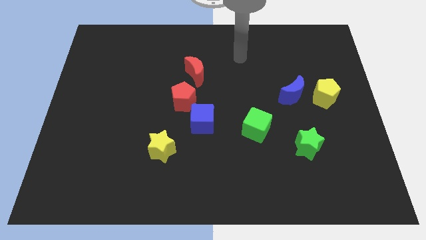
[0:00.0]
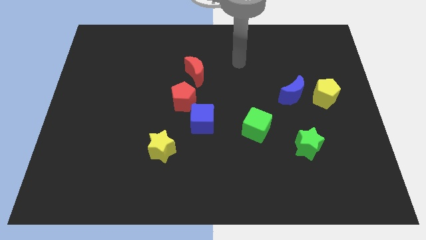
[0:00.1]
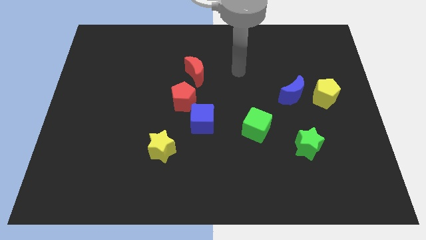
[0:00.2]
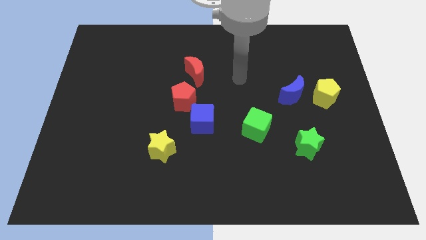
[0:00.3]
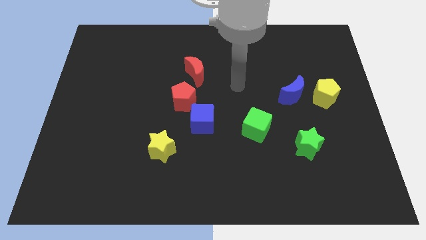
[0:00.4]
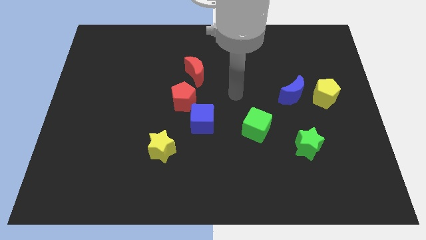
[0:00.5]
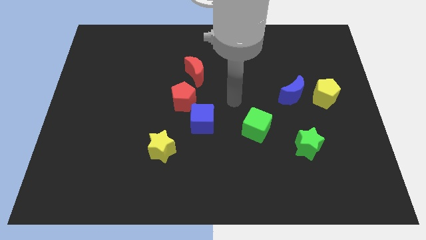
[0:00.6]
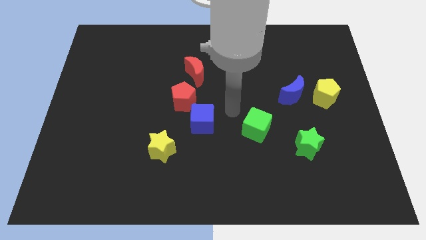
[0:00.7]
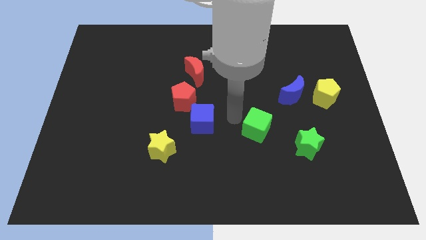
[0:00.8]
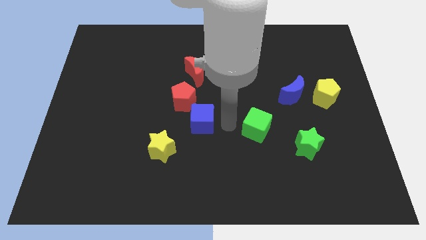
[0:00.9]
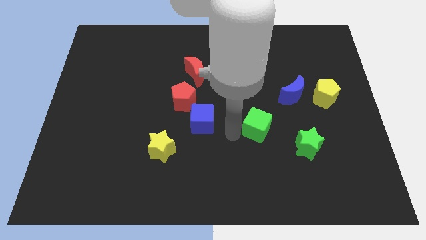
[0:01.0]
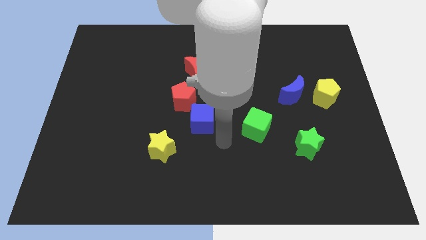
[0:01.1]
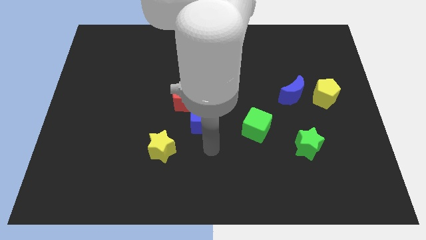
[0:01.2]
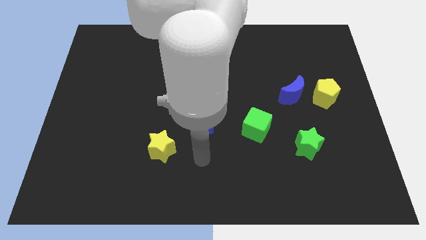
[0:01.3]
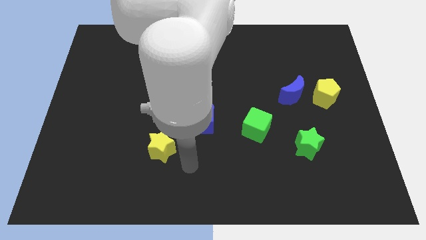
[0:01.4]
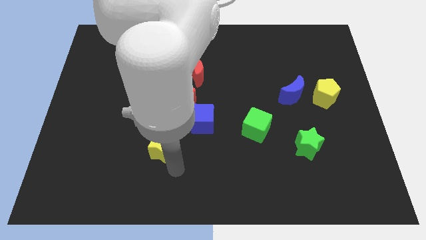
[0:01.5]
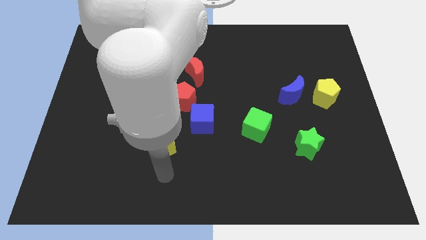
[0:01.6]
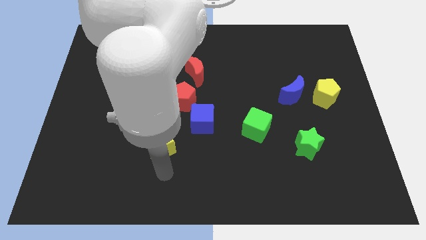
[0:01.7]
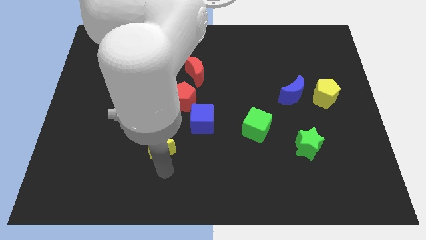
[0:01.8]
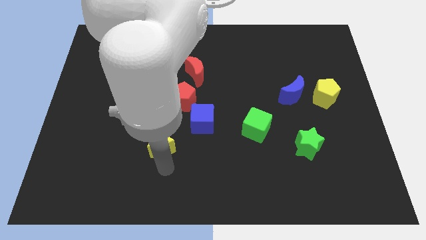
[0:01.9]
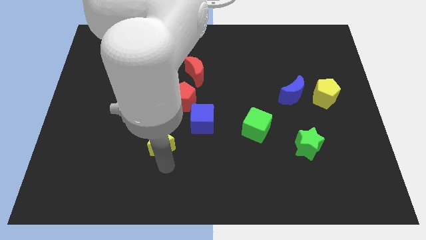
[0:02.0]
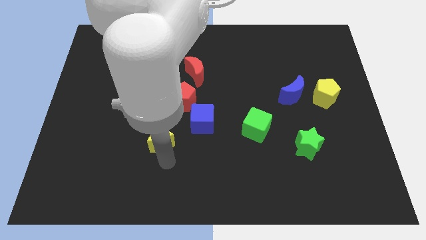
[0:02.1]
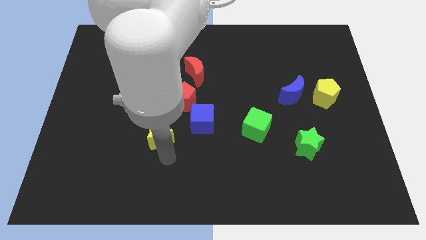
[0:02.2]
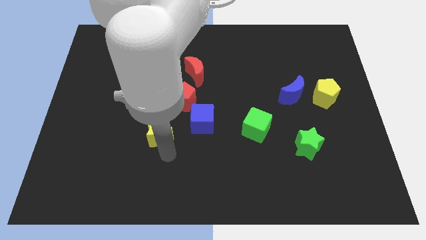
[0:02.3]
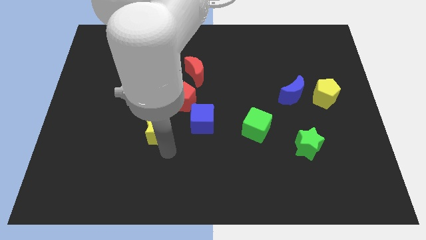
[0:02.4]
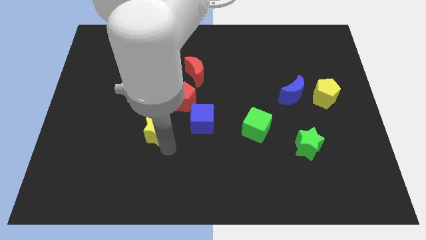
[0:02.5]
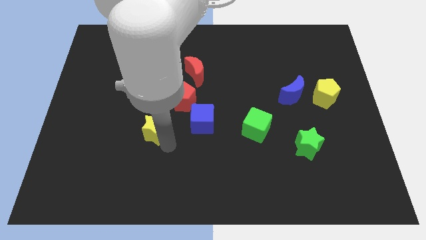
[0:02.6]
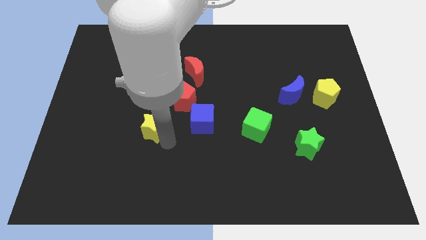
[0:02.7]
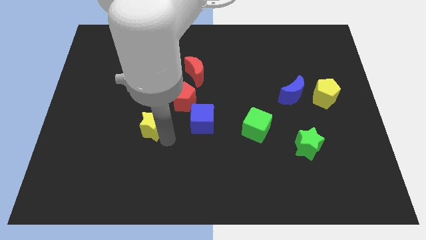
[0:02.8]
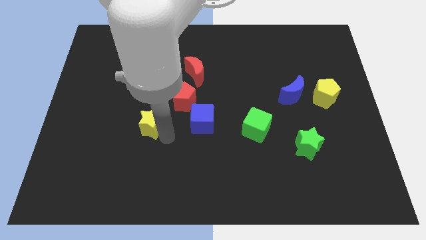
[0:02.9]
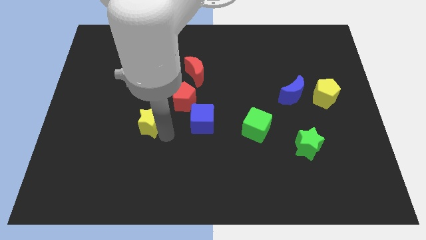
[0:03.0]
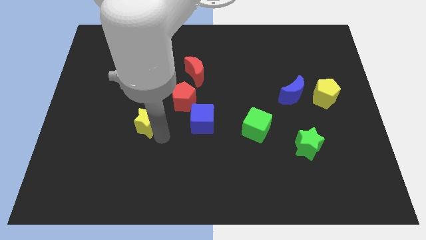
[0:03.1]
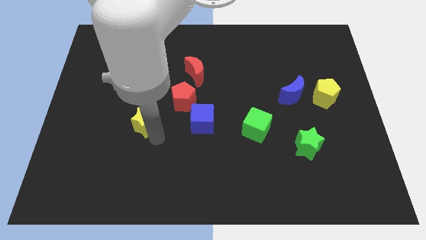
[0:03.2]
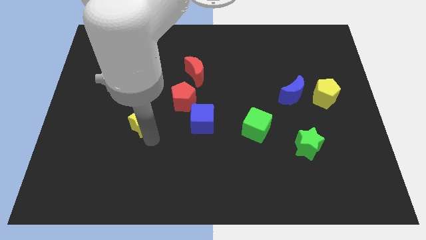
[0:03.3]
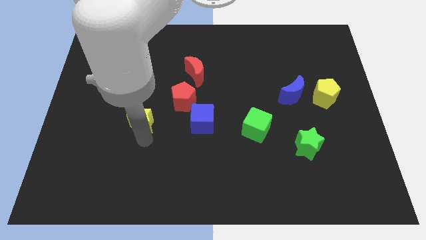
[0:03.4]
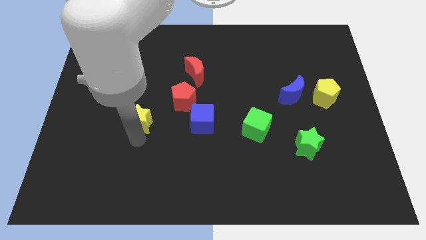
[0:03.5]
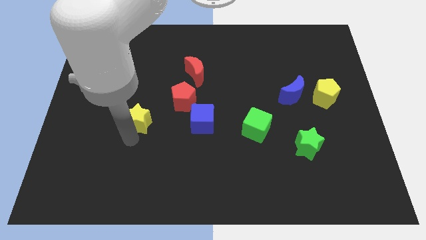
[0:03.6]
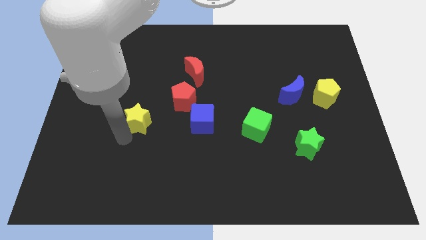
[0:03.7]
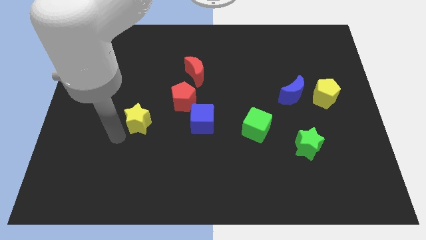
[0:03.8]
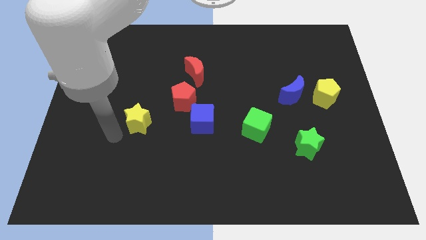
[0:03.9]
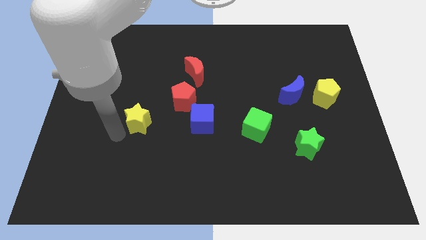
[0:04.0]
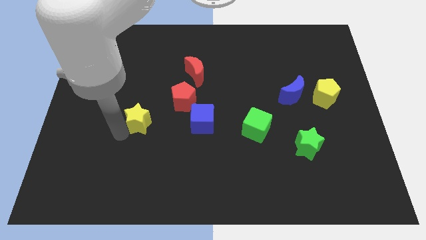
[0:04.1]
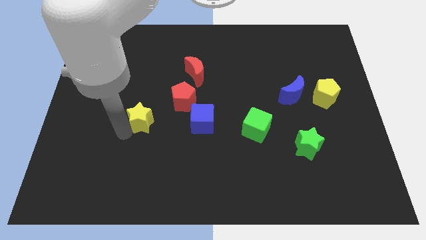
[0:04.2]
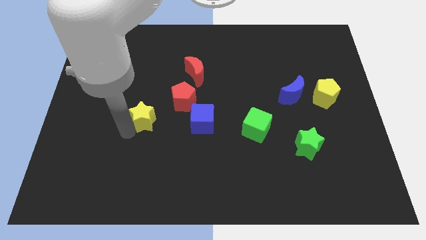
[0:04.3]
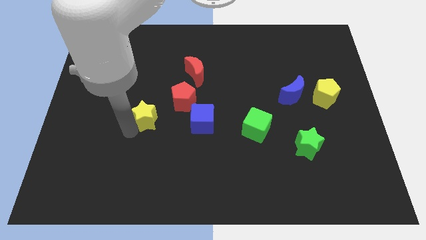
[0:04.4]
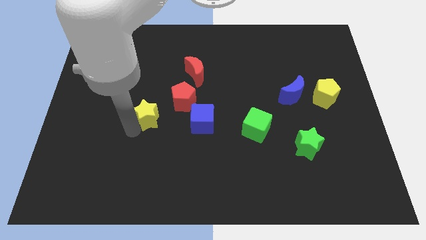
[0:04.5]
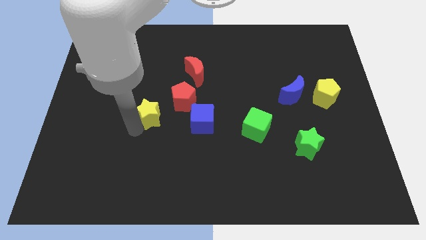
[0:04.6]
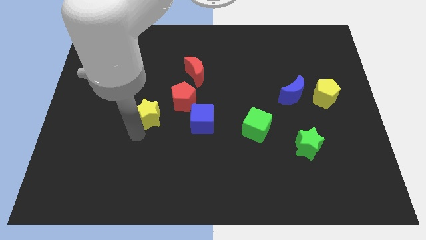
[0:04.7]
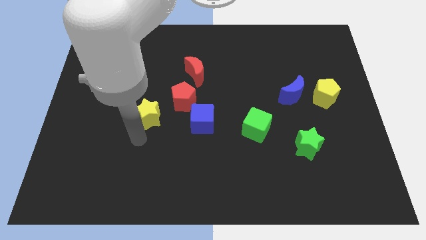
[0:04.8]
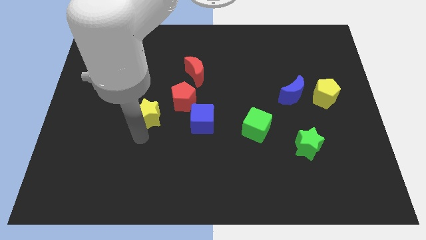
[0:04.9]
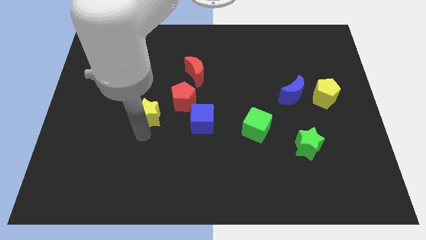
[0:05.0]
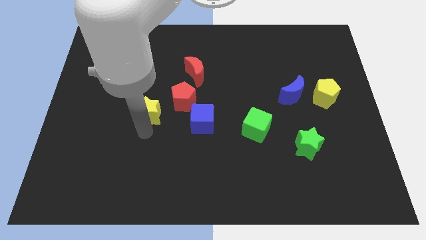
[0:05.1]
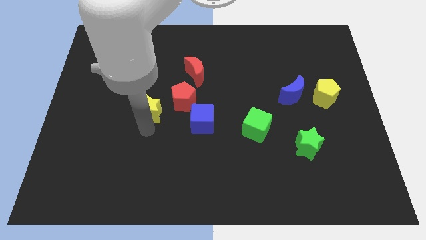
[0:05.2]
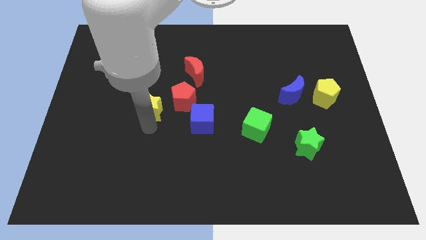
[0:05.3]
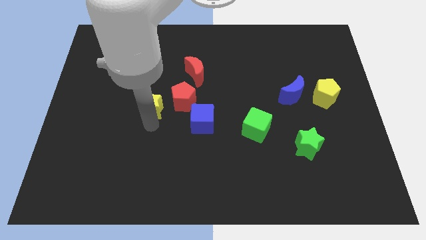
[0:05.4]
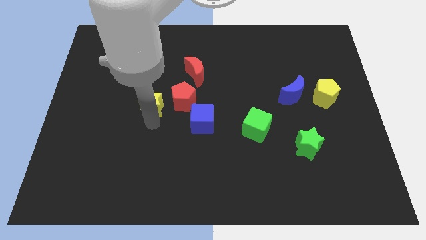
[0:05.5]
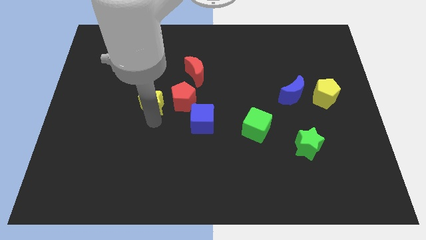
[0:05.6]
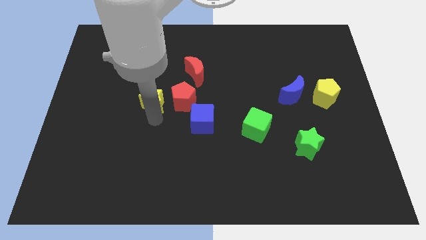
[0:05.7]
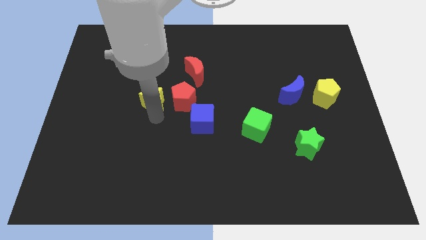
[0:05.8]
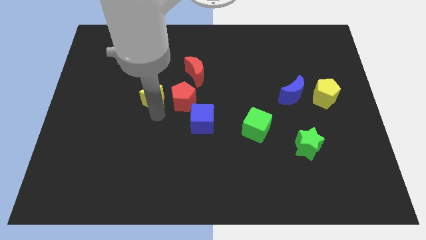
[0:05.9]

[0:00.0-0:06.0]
move the yellow star to the bottom left of the red moon
